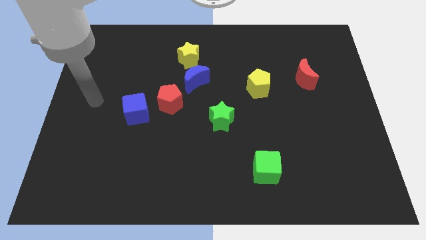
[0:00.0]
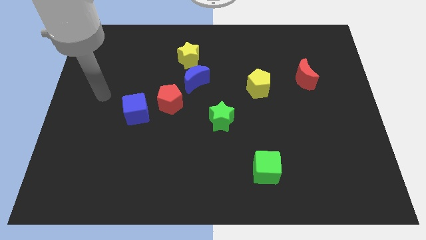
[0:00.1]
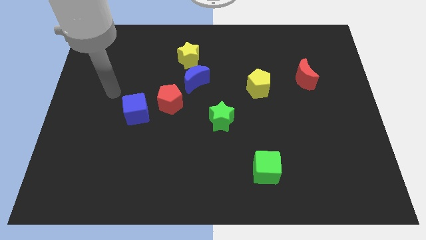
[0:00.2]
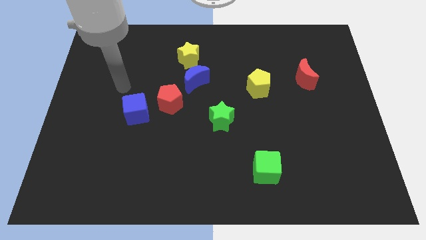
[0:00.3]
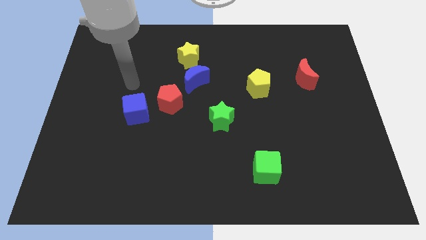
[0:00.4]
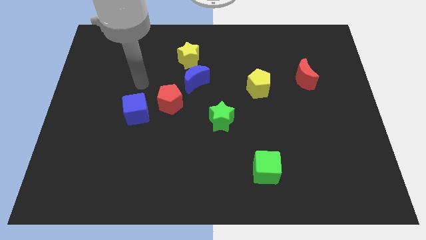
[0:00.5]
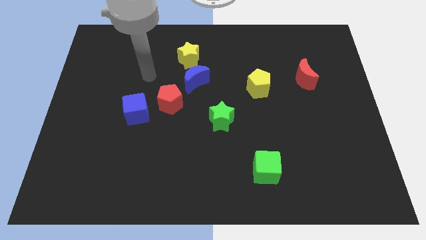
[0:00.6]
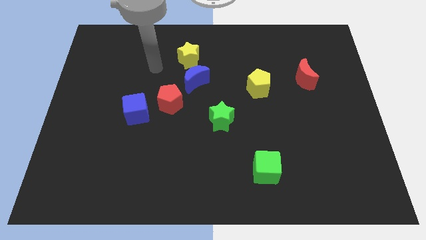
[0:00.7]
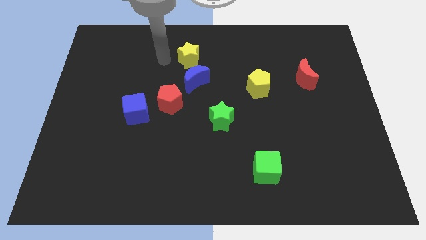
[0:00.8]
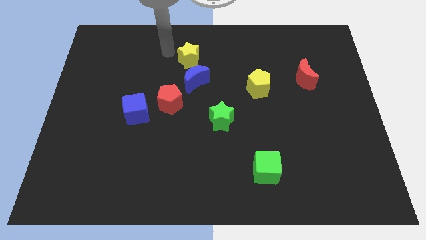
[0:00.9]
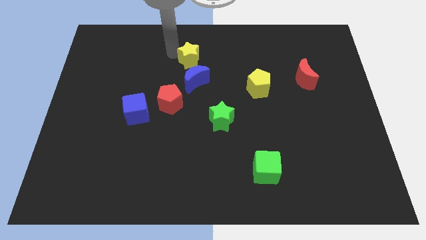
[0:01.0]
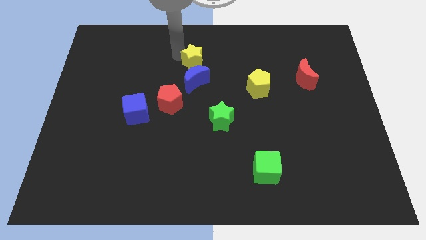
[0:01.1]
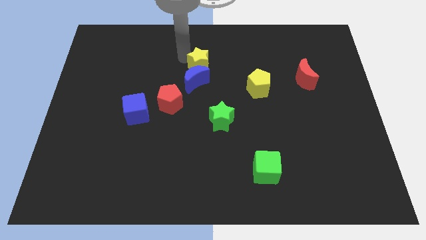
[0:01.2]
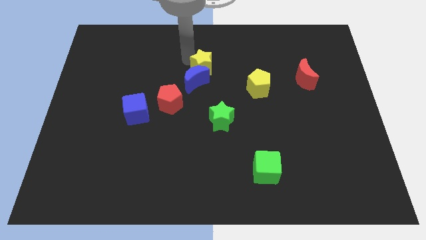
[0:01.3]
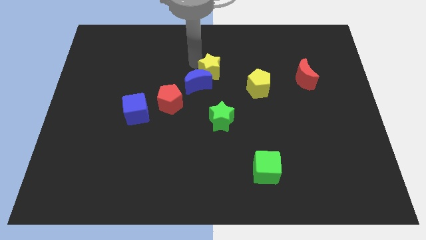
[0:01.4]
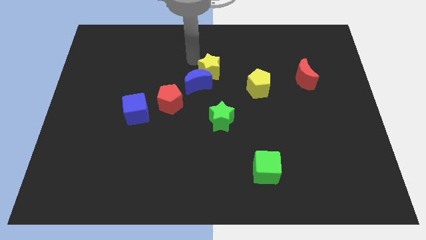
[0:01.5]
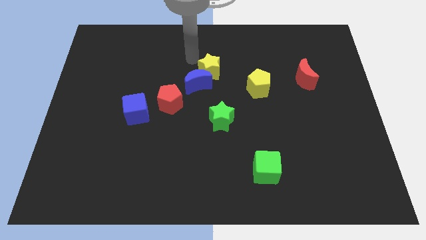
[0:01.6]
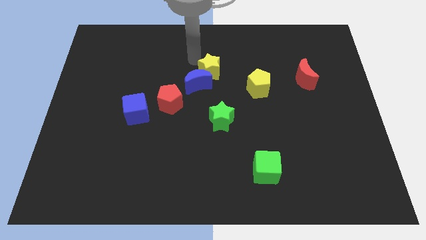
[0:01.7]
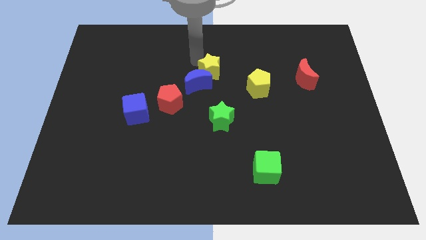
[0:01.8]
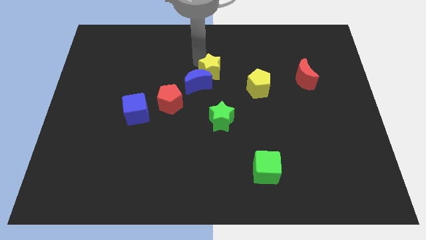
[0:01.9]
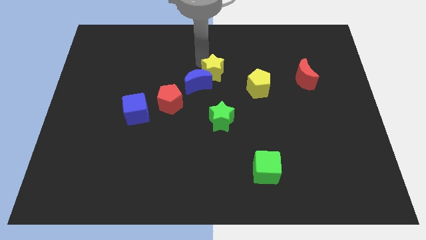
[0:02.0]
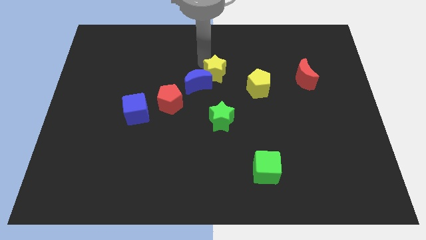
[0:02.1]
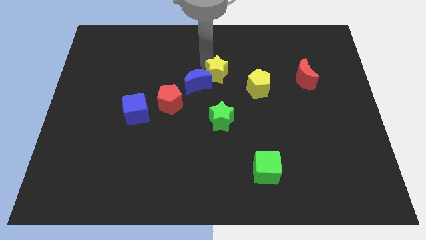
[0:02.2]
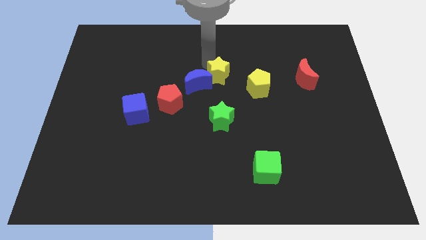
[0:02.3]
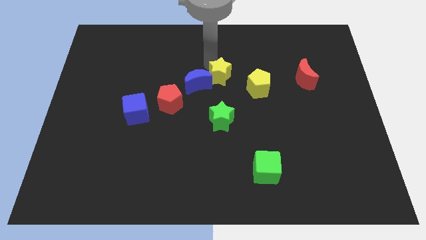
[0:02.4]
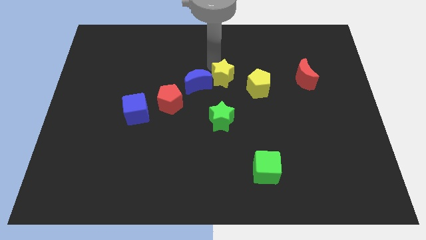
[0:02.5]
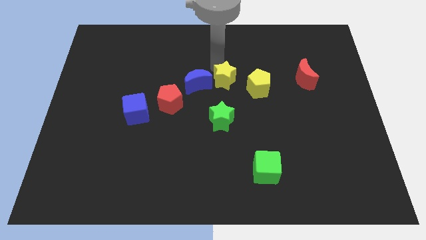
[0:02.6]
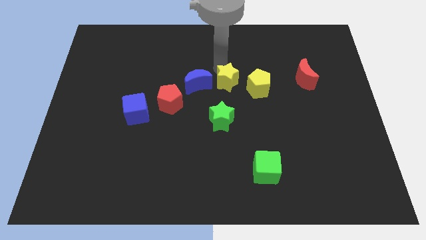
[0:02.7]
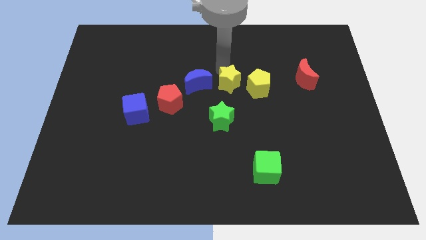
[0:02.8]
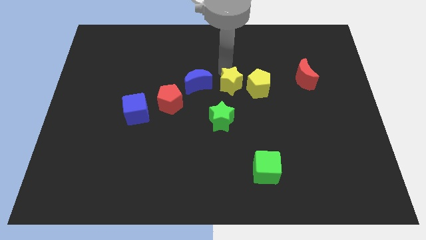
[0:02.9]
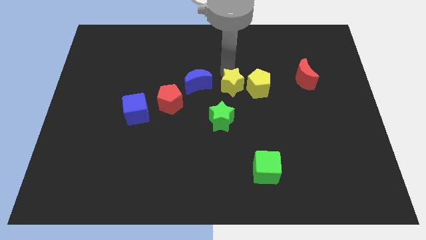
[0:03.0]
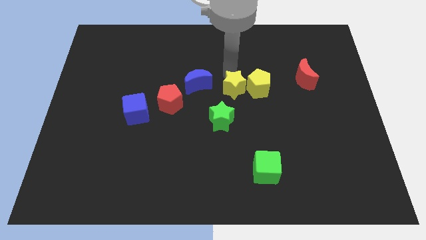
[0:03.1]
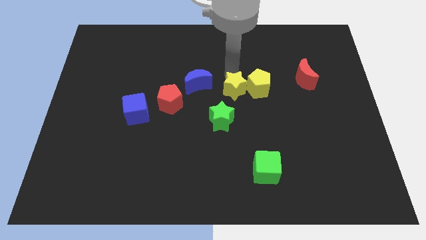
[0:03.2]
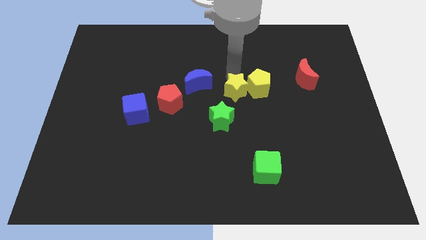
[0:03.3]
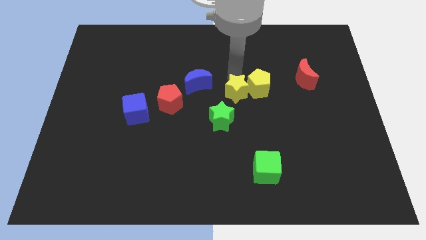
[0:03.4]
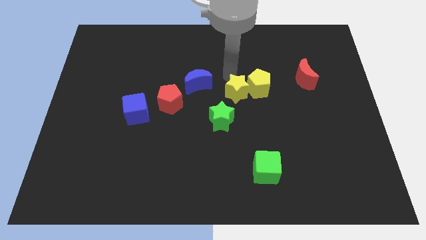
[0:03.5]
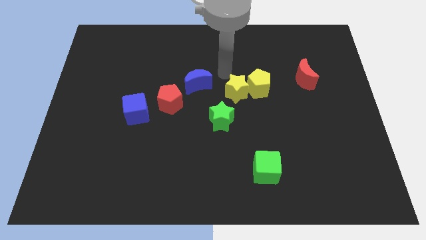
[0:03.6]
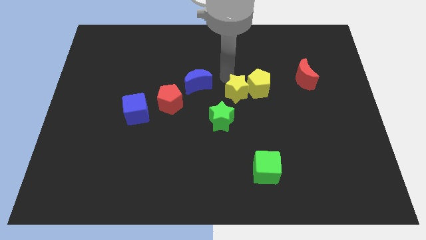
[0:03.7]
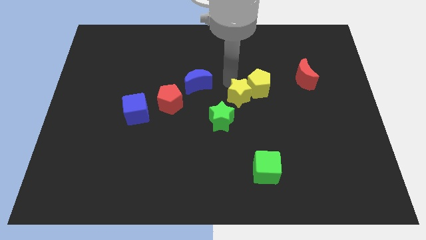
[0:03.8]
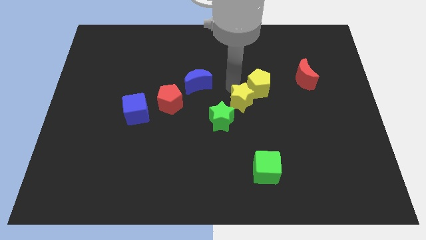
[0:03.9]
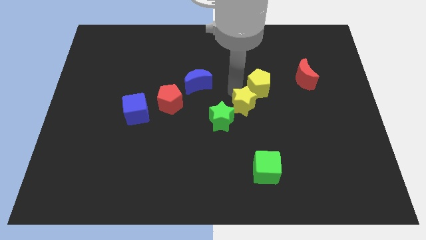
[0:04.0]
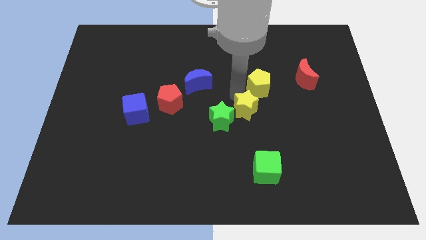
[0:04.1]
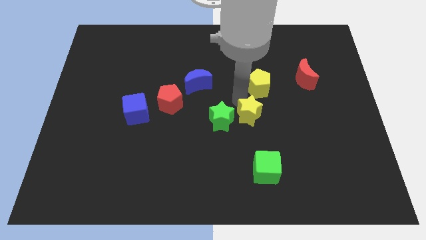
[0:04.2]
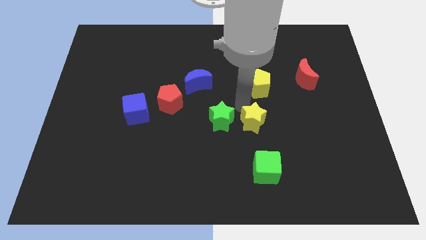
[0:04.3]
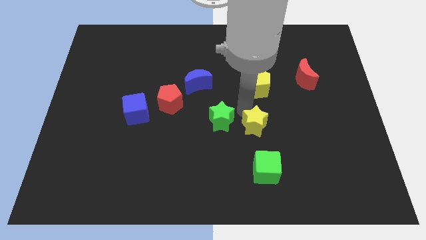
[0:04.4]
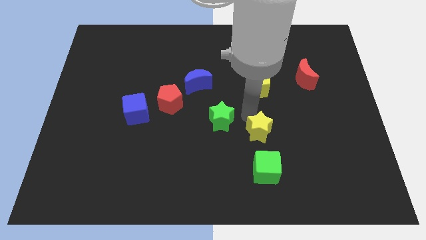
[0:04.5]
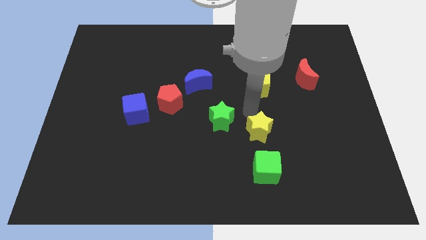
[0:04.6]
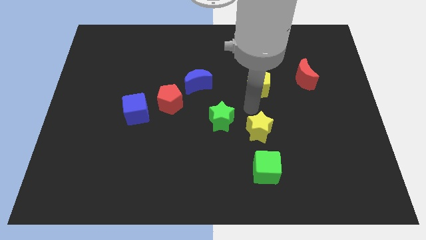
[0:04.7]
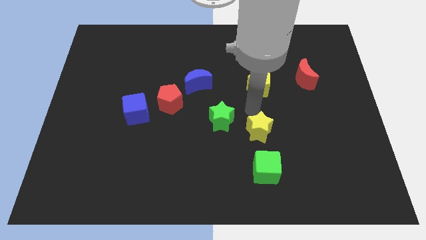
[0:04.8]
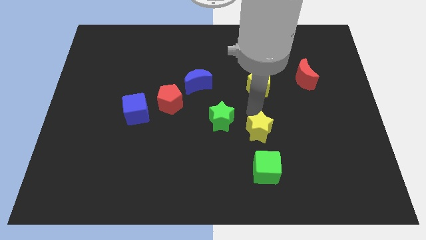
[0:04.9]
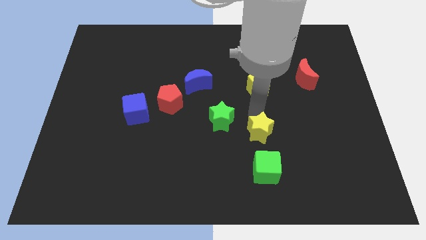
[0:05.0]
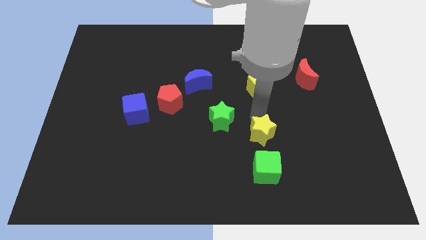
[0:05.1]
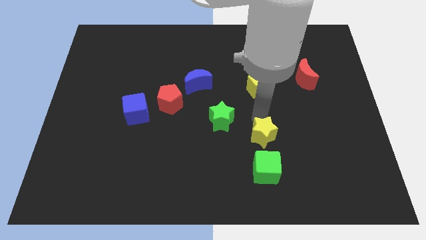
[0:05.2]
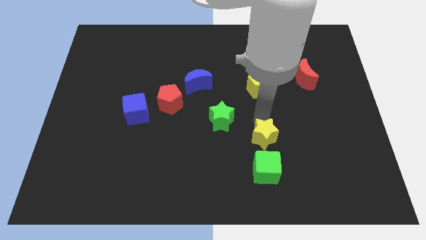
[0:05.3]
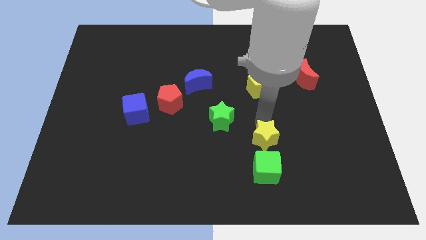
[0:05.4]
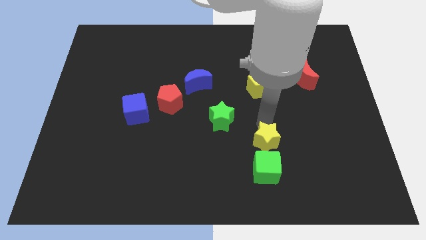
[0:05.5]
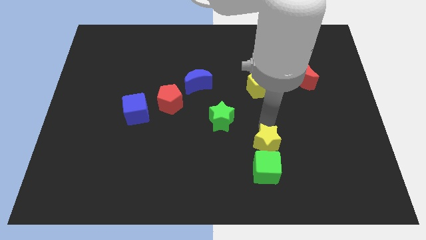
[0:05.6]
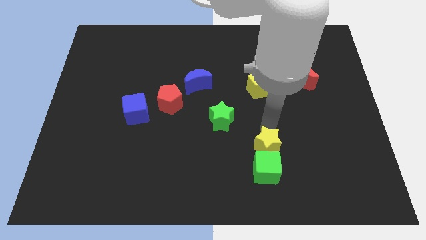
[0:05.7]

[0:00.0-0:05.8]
put the yellow star to the green cube
